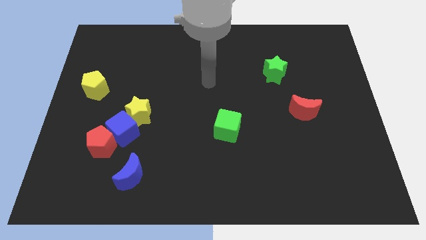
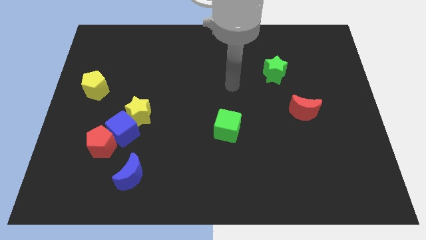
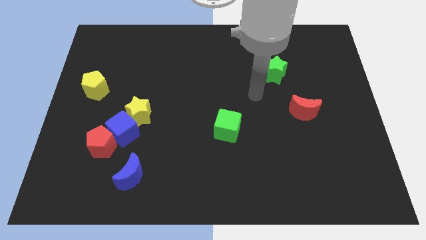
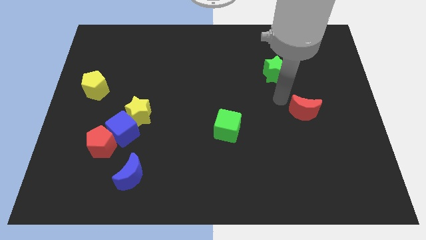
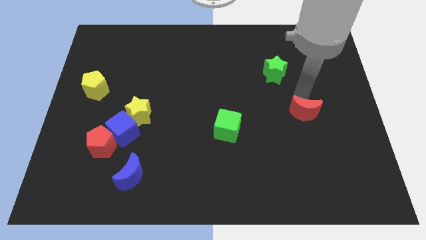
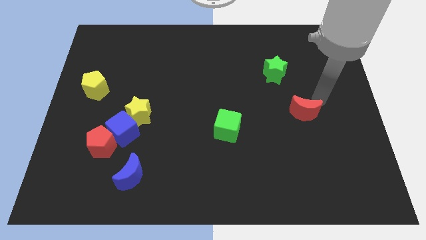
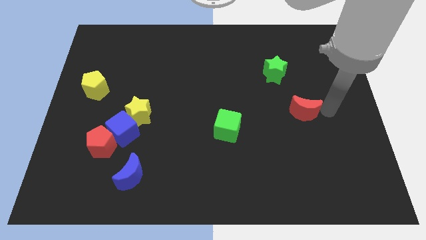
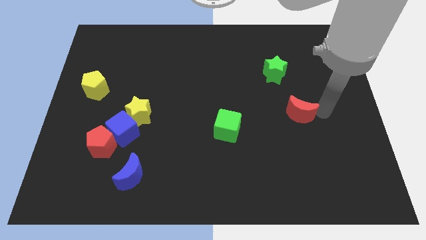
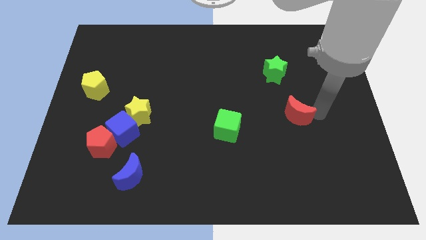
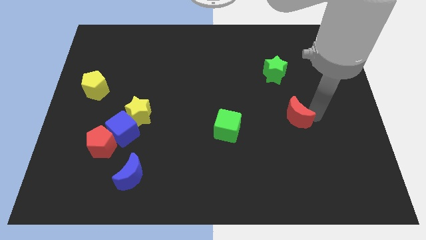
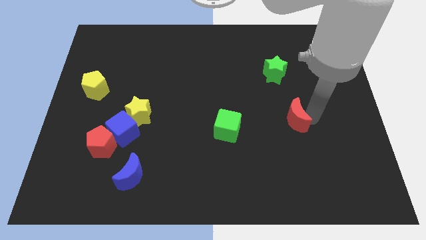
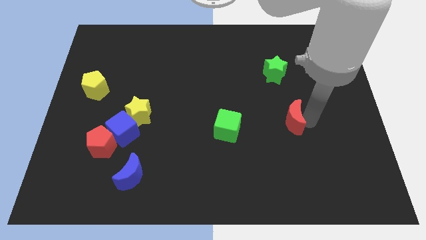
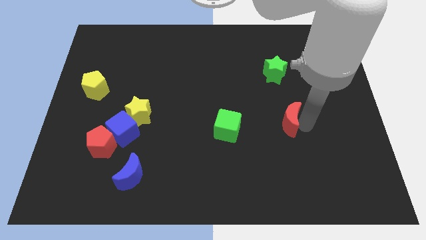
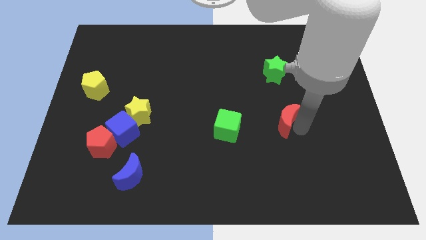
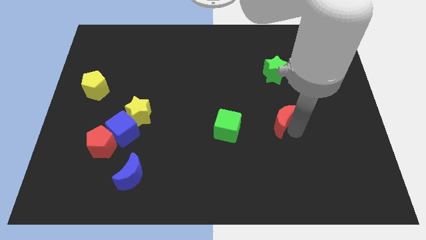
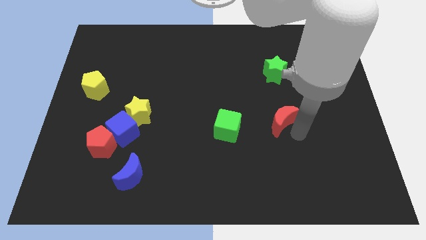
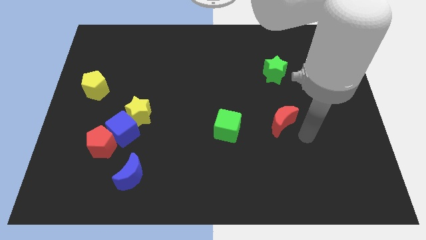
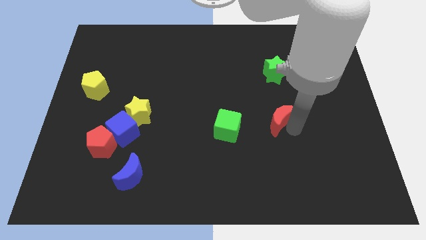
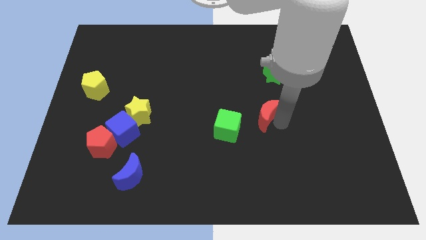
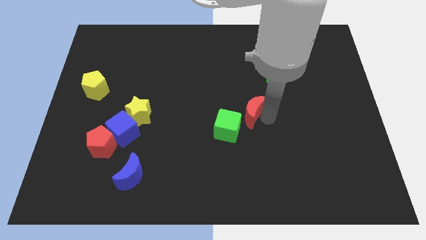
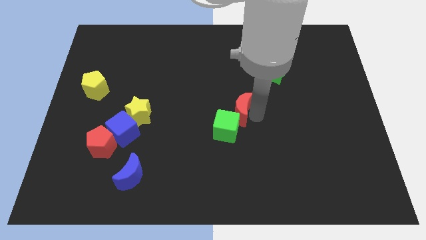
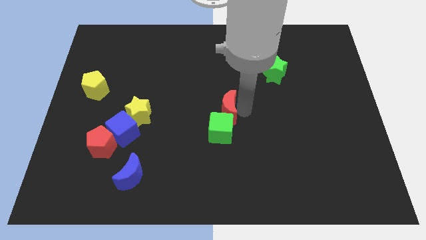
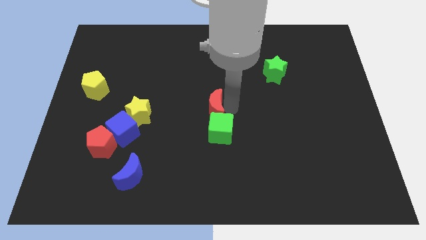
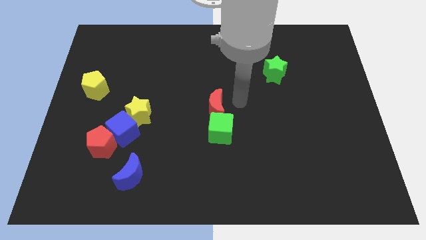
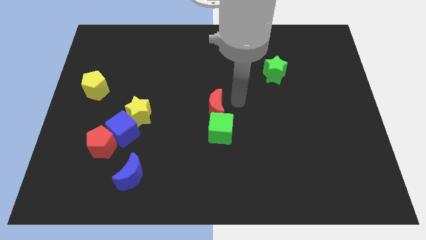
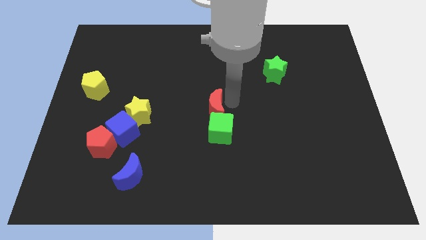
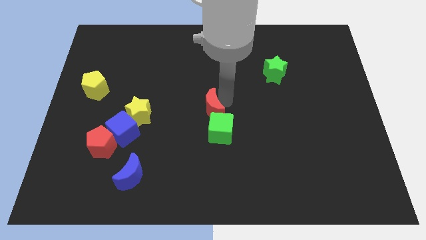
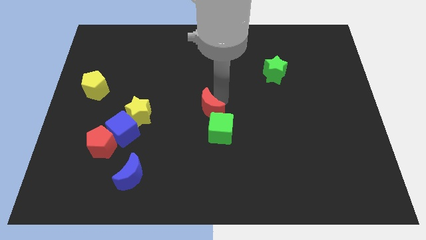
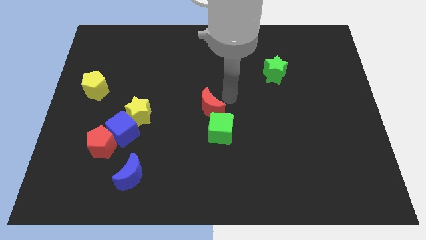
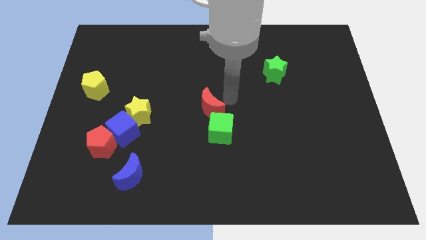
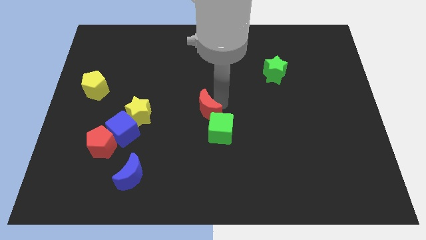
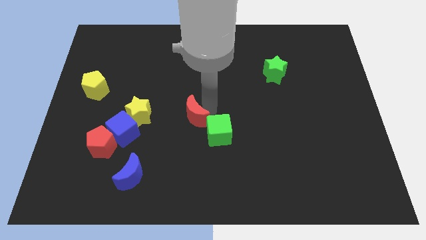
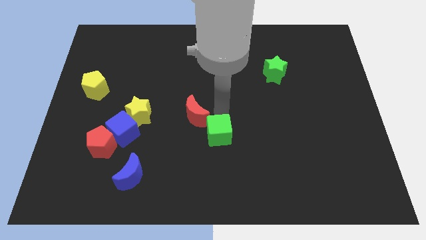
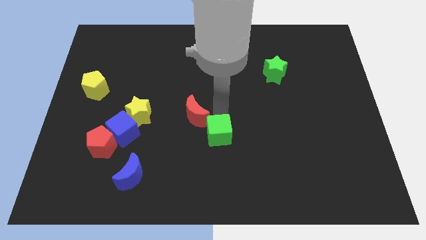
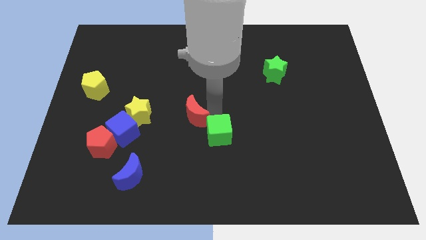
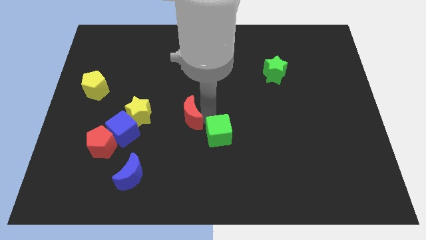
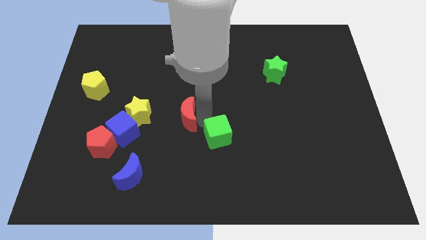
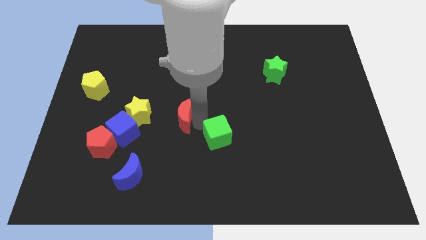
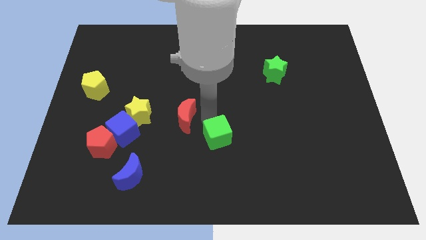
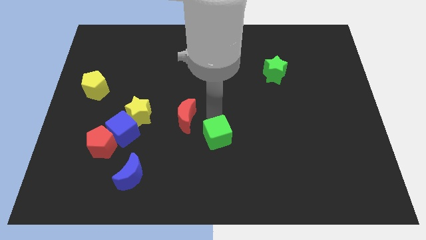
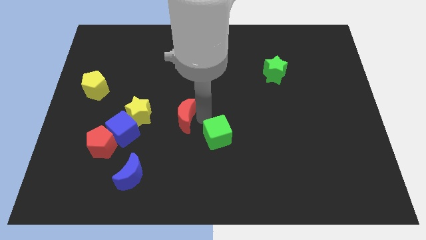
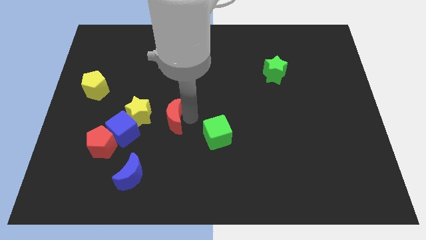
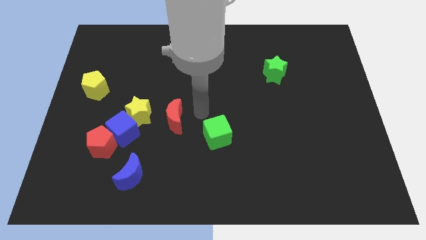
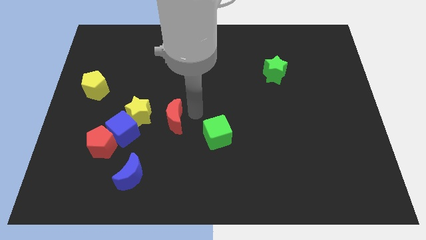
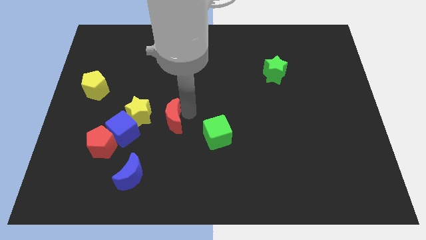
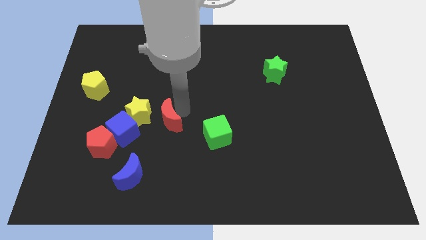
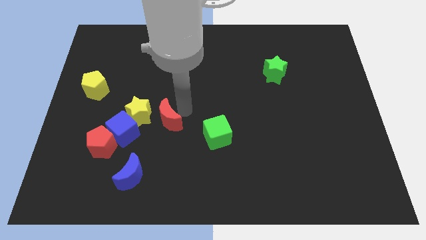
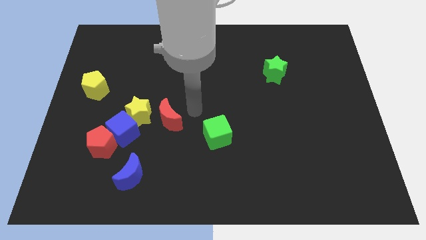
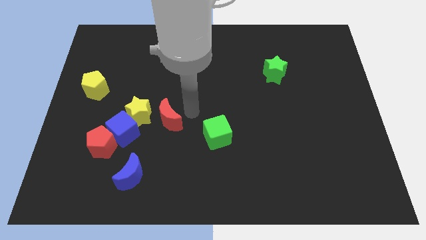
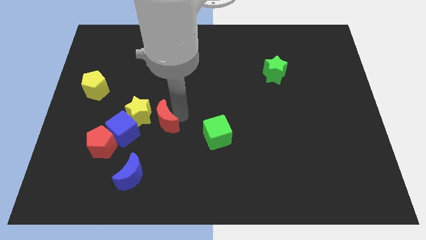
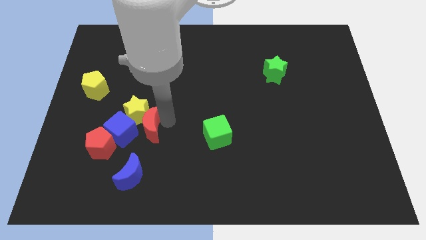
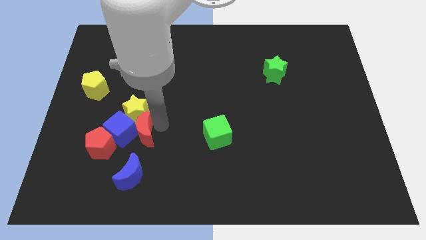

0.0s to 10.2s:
move the red moon towards the blue cube

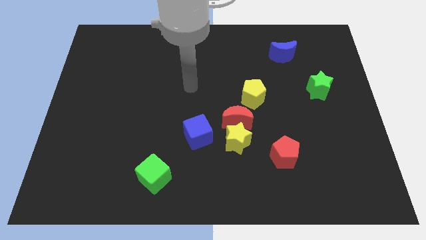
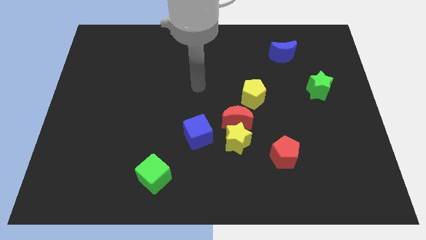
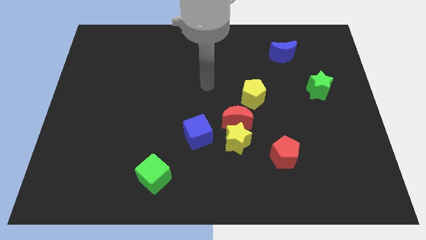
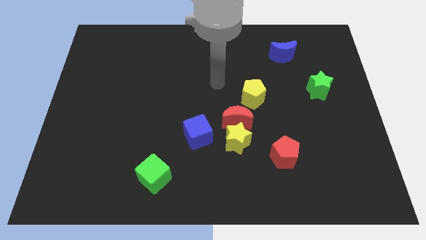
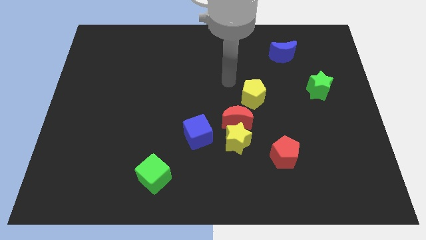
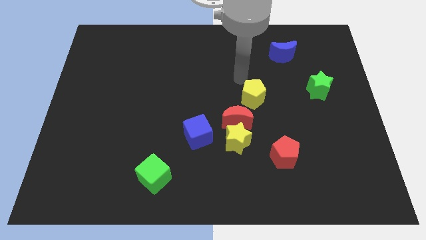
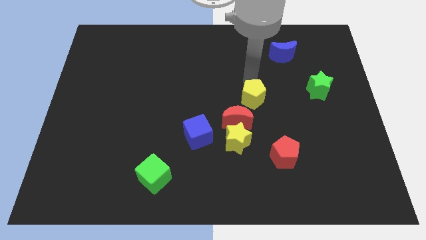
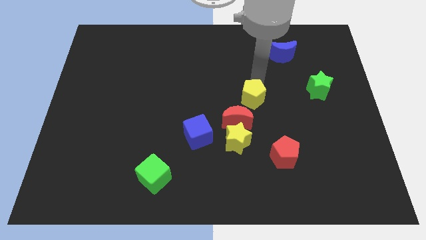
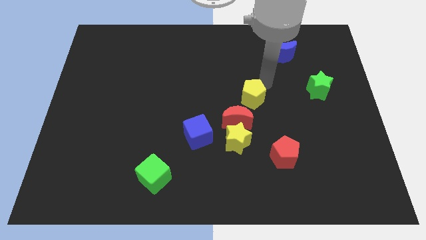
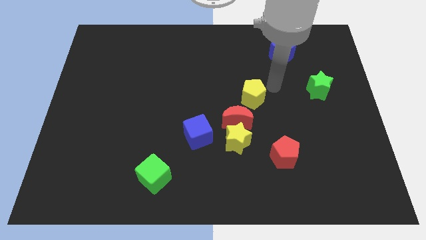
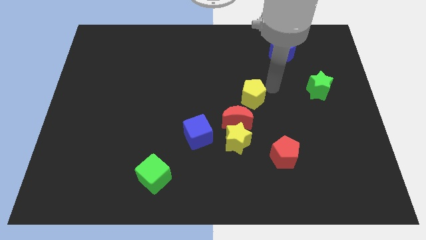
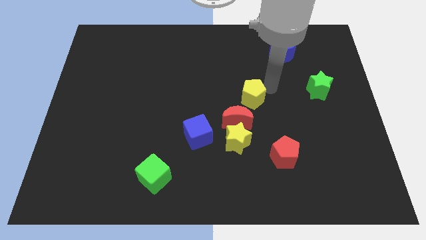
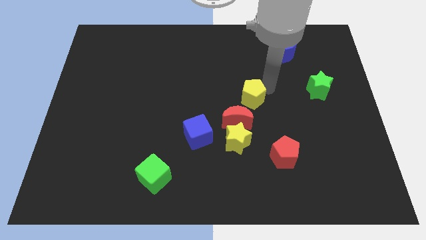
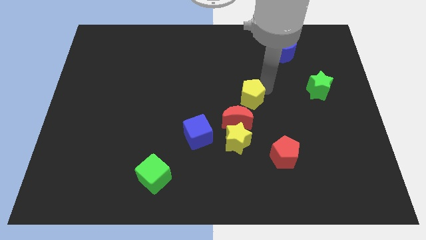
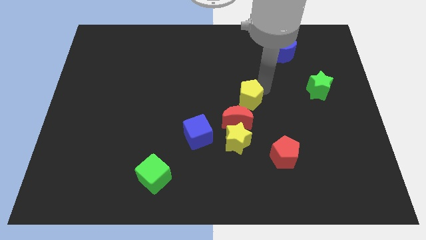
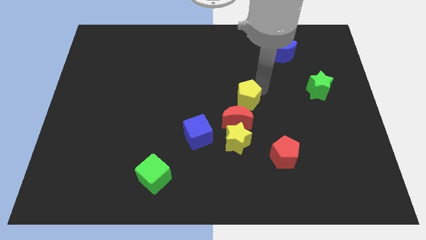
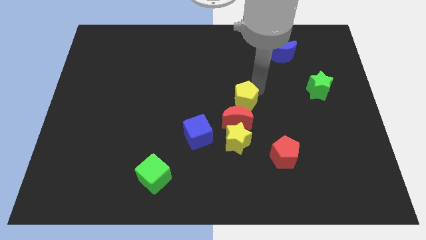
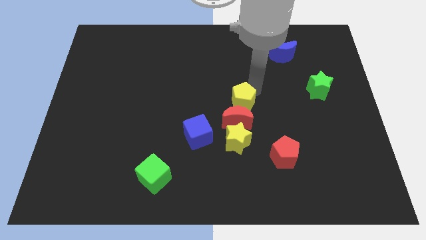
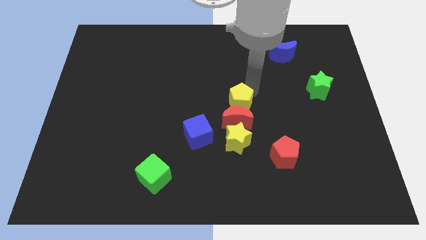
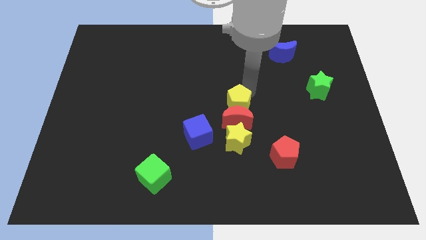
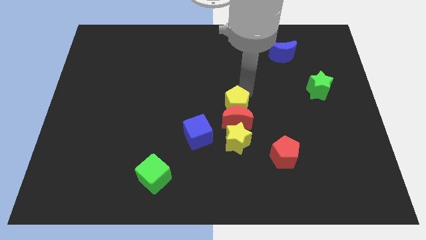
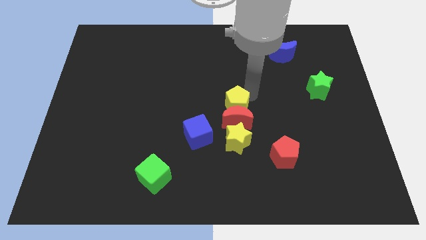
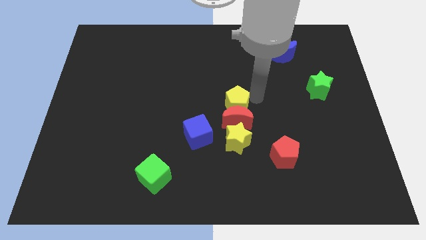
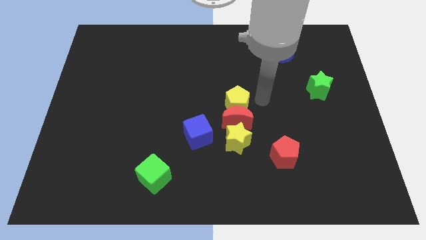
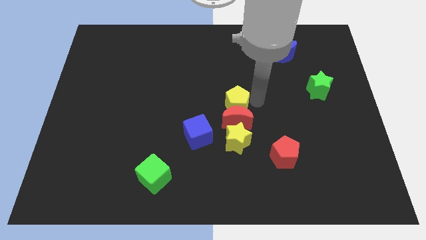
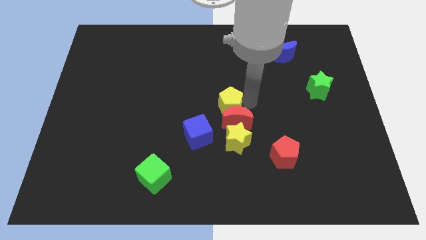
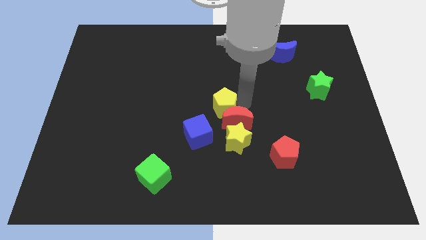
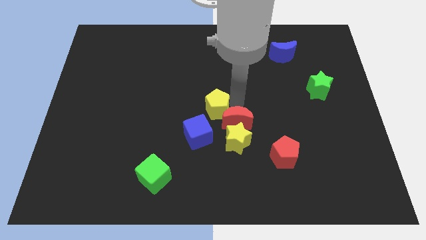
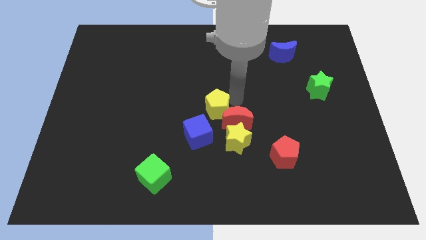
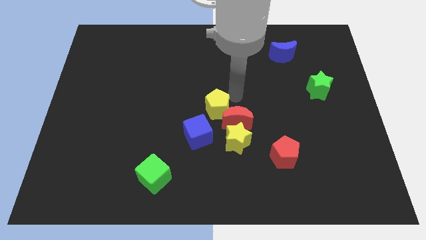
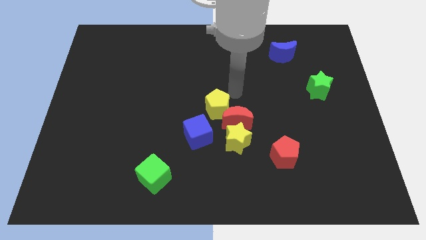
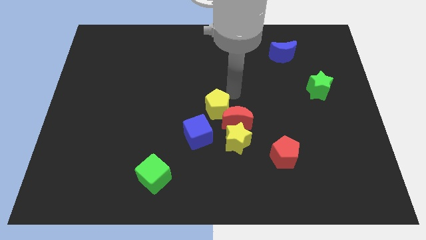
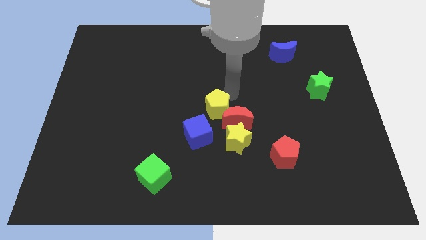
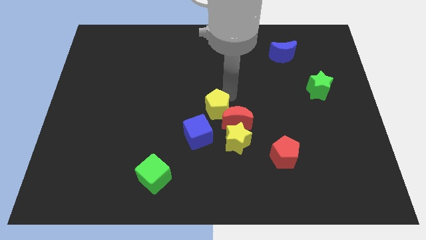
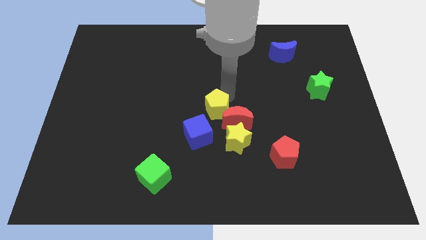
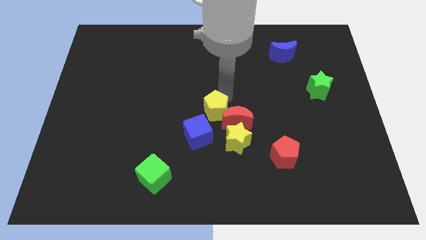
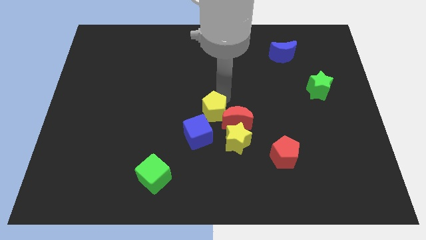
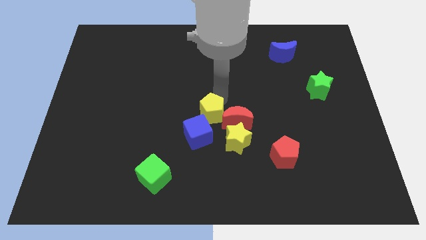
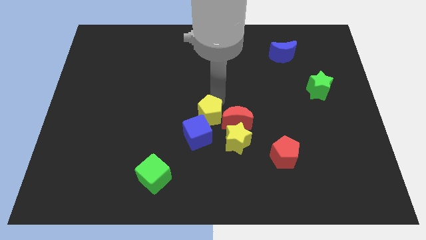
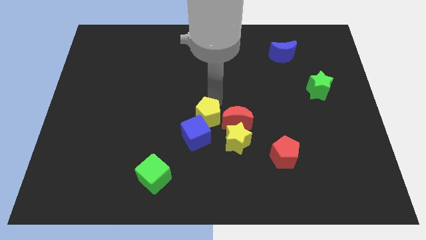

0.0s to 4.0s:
move the yellow pentagon towards the blue cube
